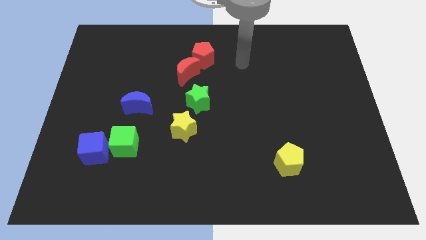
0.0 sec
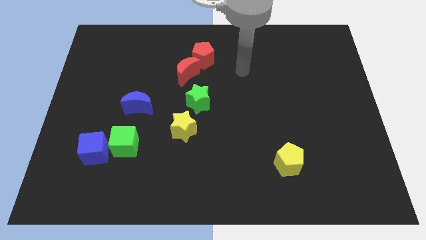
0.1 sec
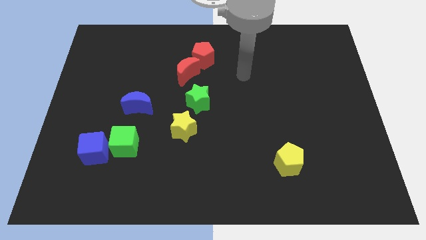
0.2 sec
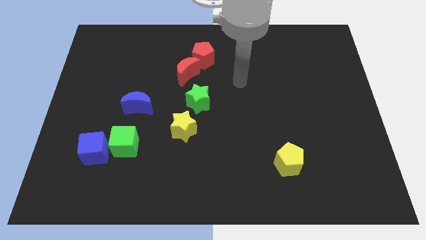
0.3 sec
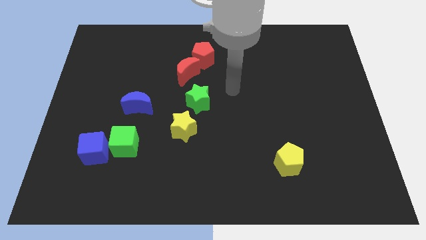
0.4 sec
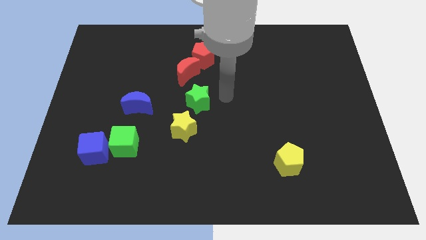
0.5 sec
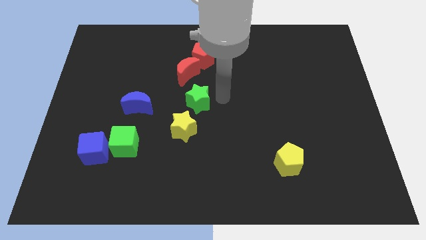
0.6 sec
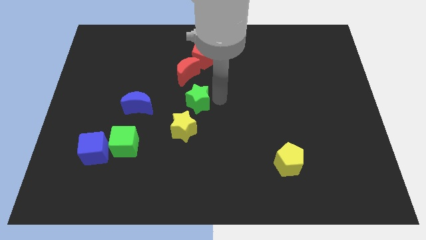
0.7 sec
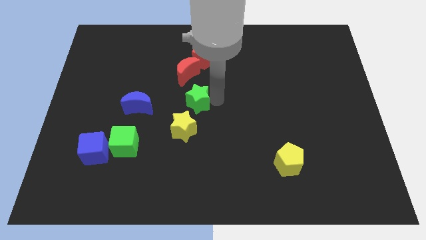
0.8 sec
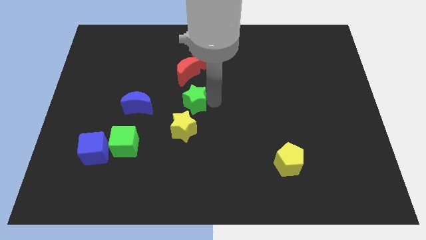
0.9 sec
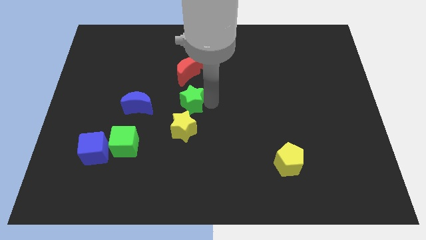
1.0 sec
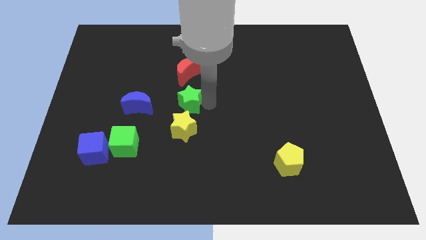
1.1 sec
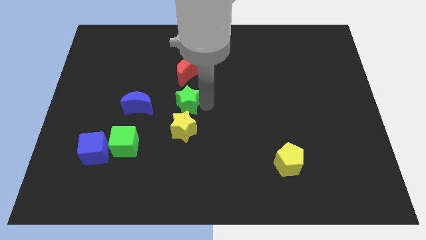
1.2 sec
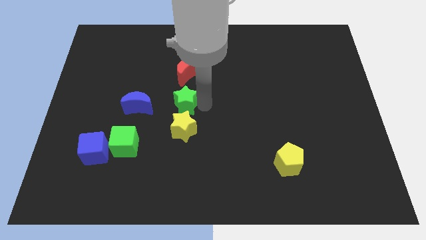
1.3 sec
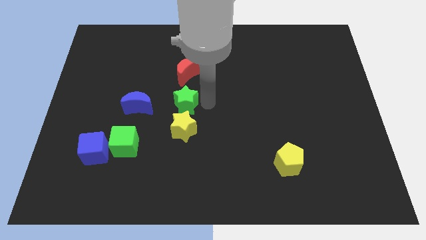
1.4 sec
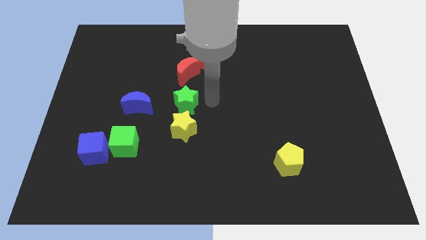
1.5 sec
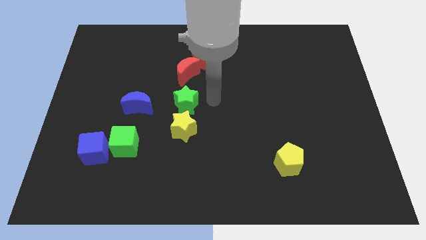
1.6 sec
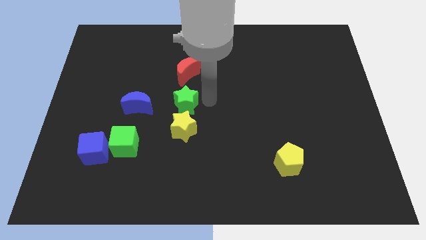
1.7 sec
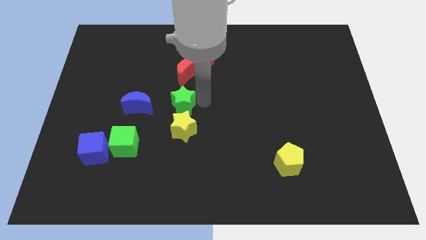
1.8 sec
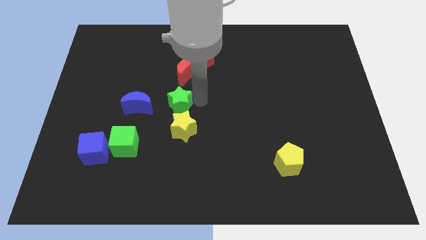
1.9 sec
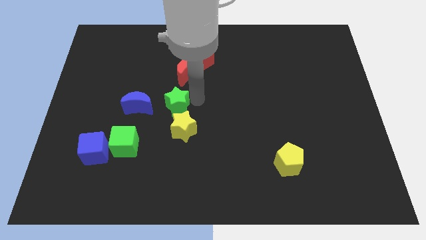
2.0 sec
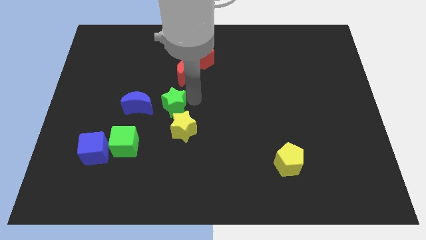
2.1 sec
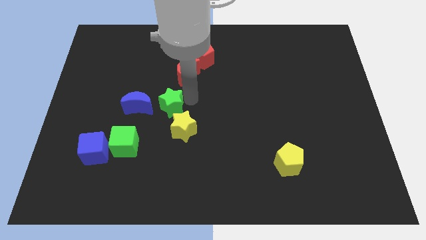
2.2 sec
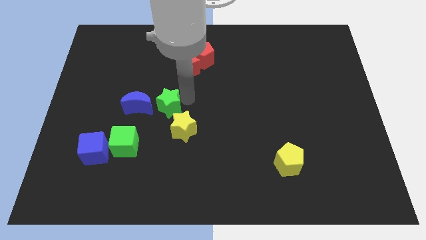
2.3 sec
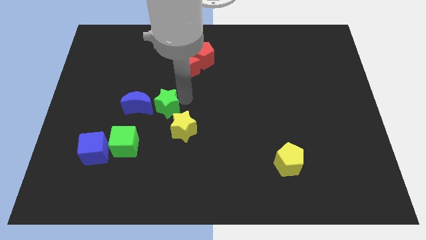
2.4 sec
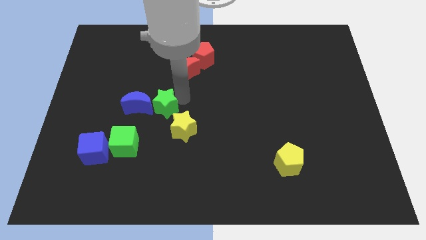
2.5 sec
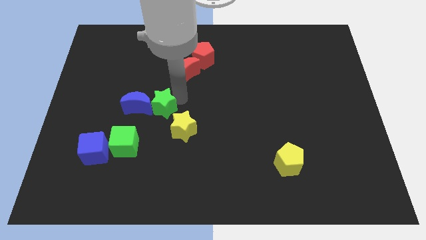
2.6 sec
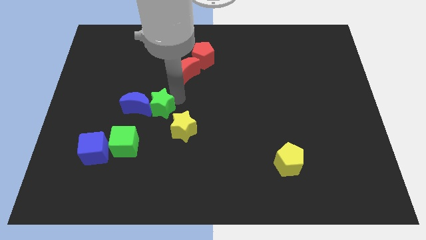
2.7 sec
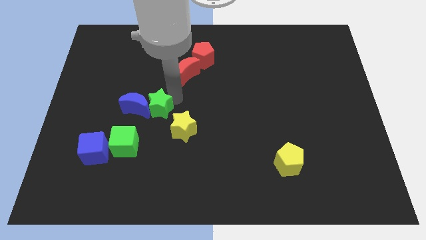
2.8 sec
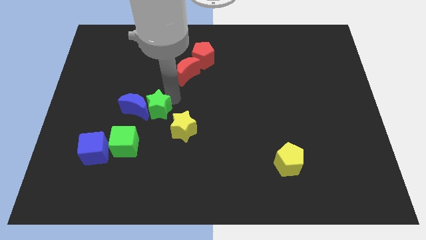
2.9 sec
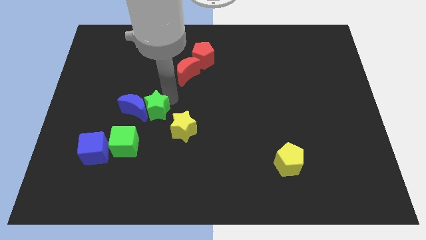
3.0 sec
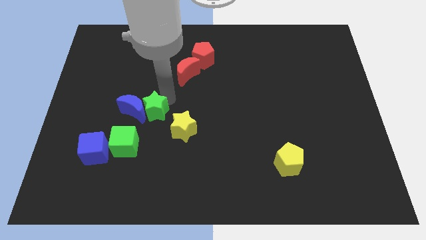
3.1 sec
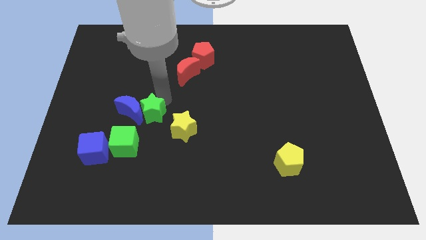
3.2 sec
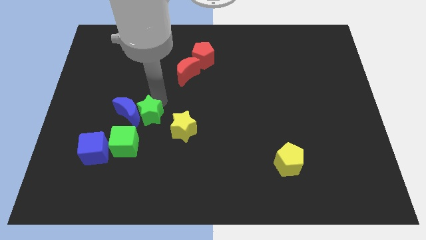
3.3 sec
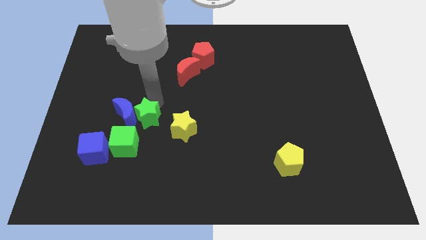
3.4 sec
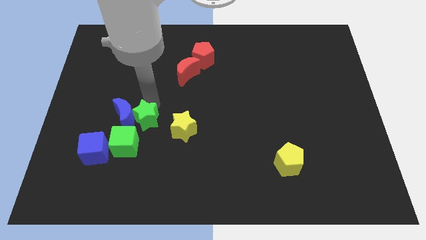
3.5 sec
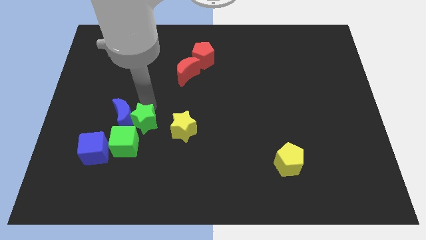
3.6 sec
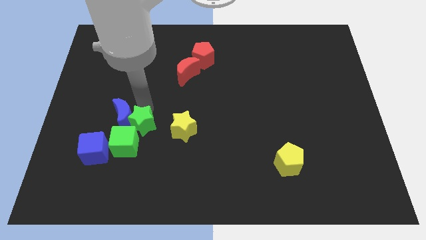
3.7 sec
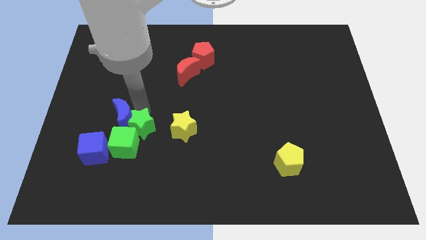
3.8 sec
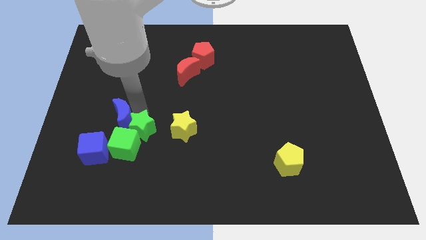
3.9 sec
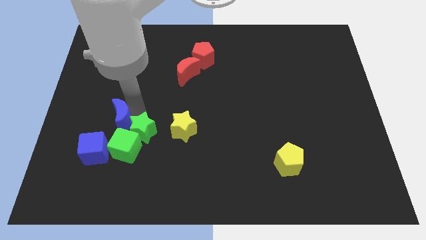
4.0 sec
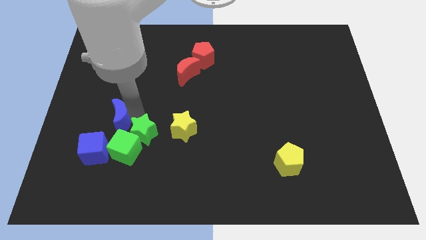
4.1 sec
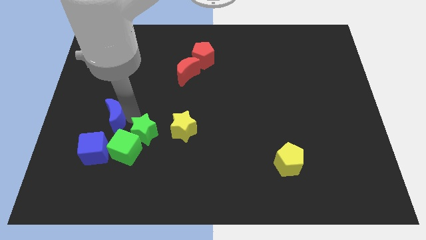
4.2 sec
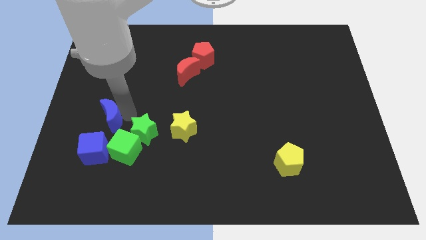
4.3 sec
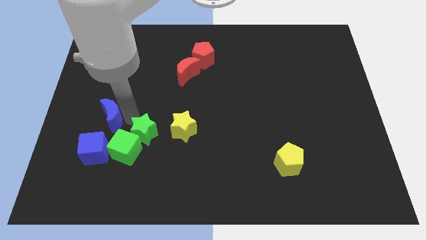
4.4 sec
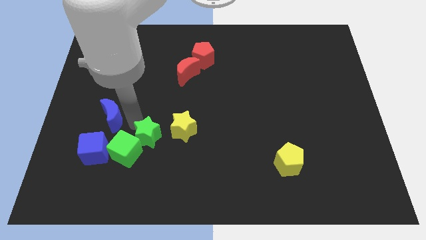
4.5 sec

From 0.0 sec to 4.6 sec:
put the green star diagonally down and to the left of the yellow star

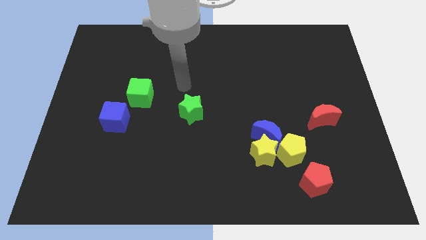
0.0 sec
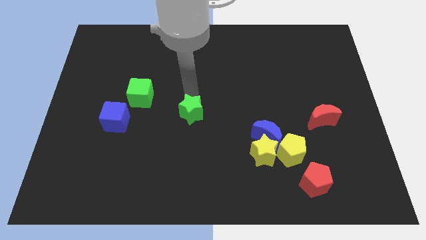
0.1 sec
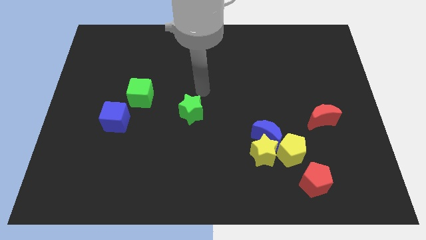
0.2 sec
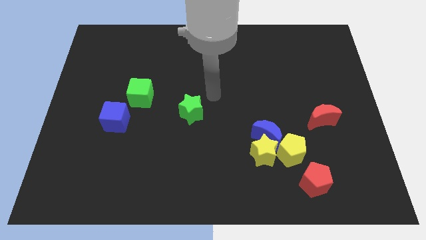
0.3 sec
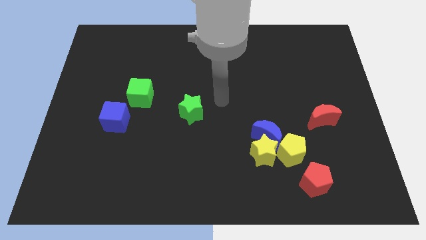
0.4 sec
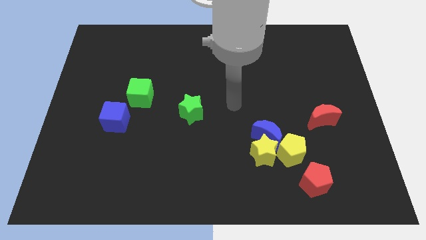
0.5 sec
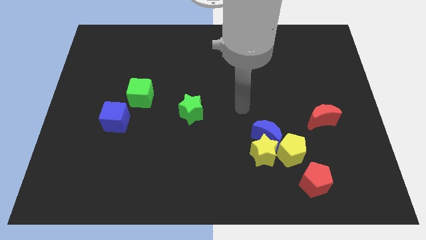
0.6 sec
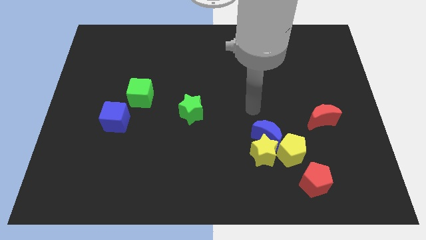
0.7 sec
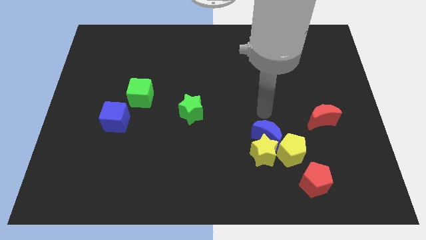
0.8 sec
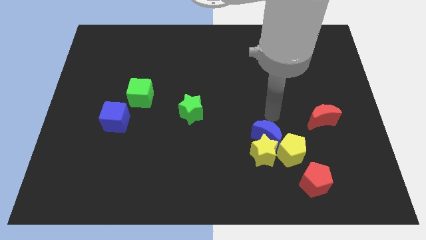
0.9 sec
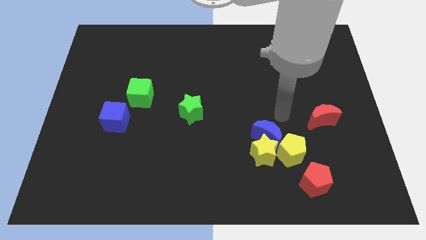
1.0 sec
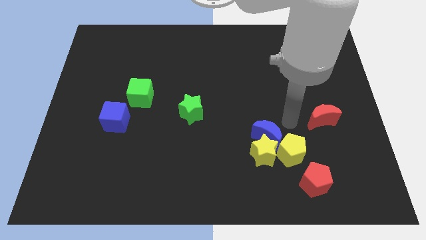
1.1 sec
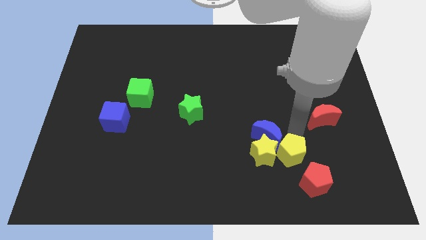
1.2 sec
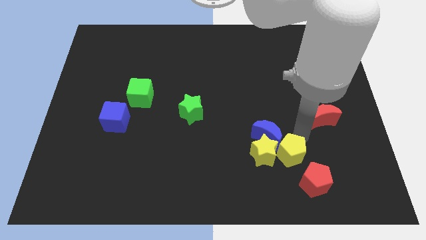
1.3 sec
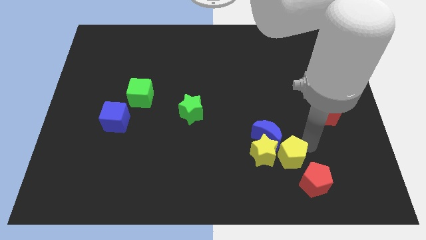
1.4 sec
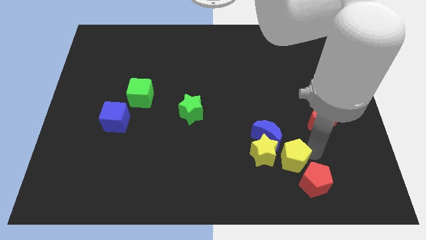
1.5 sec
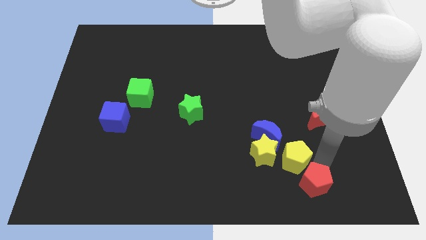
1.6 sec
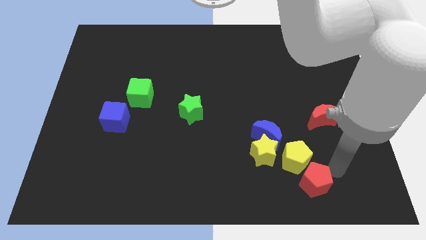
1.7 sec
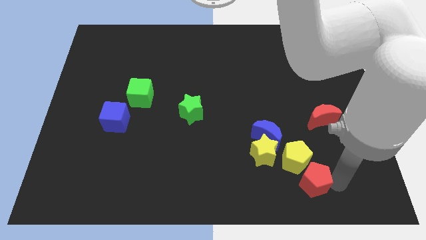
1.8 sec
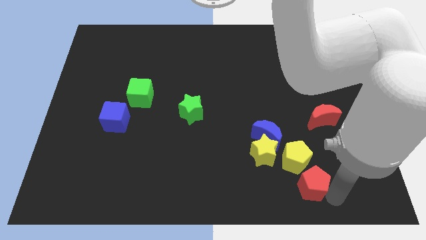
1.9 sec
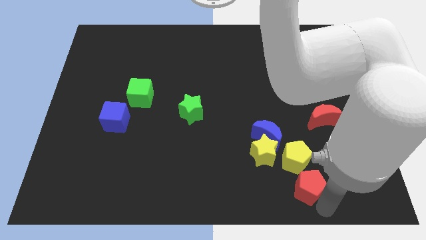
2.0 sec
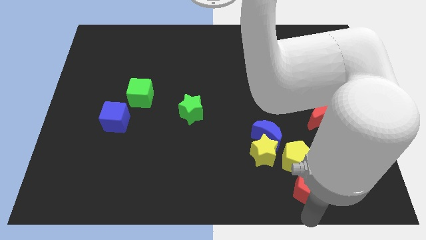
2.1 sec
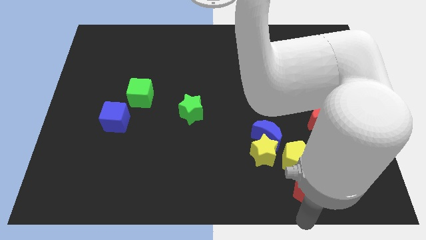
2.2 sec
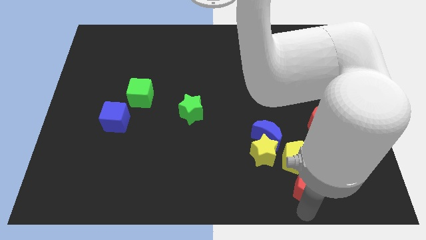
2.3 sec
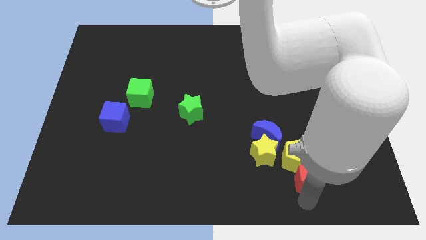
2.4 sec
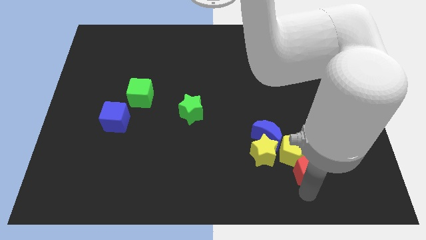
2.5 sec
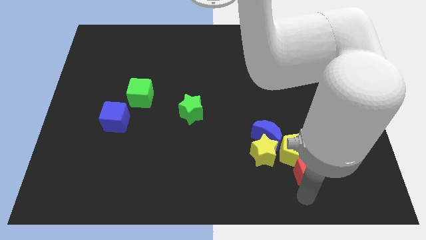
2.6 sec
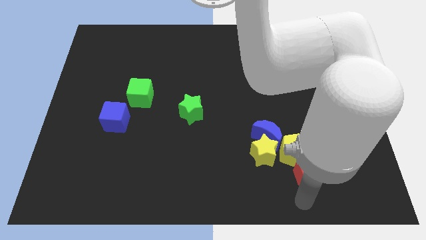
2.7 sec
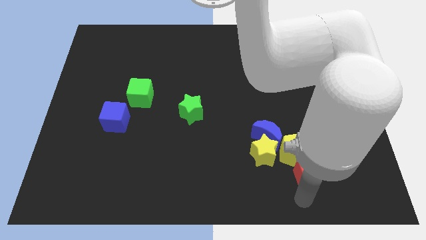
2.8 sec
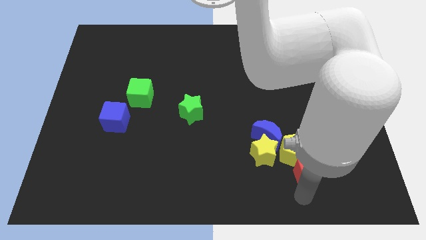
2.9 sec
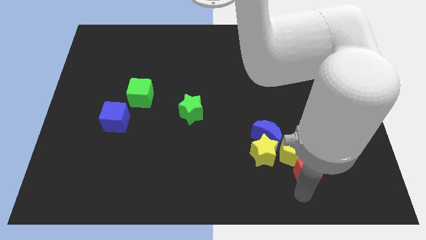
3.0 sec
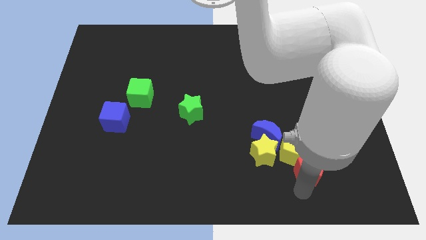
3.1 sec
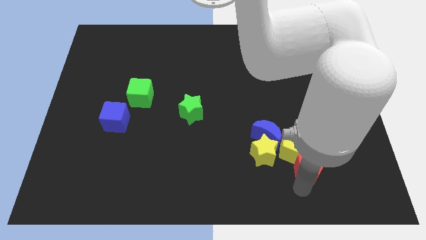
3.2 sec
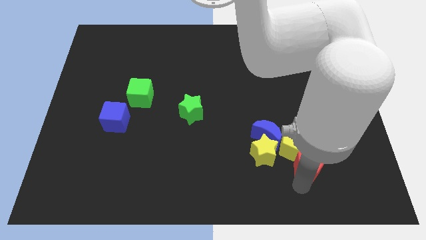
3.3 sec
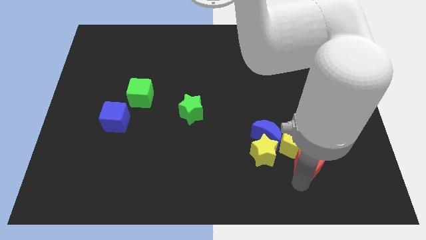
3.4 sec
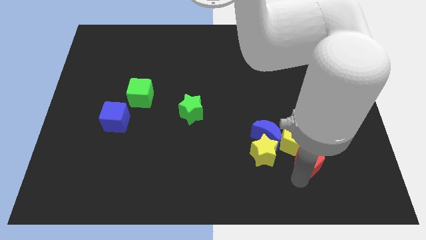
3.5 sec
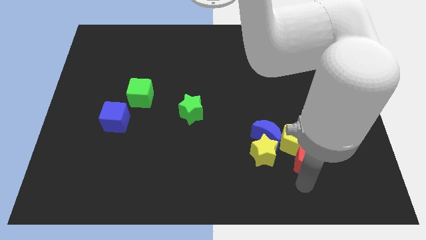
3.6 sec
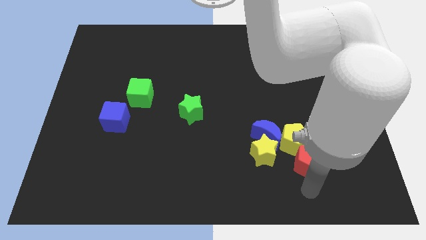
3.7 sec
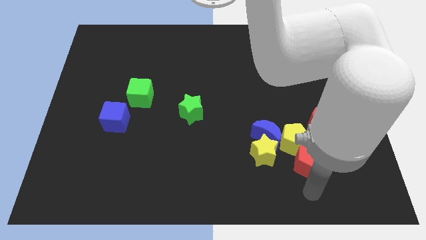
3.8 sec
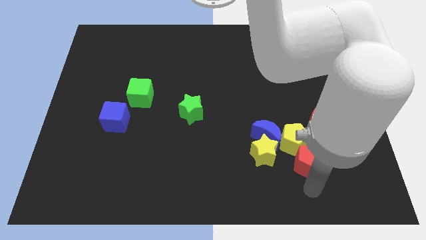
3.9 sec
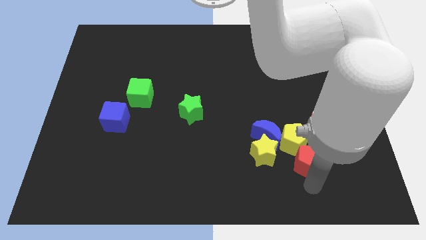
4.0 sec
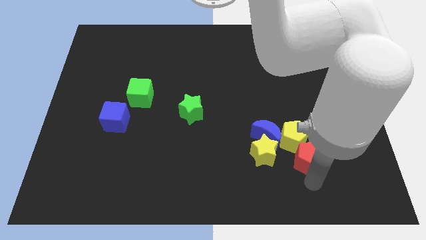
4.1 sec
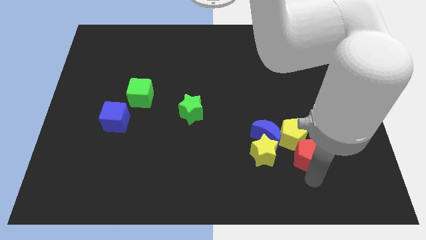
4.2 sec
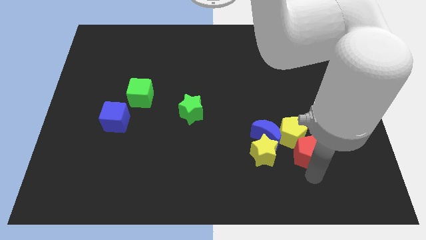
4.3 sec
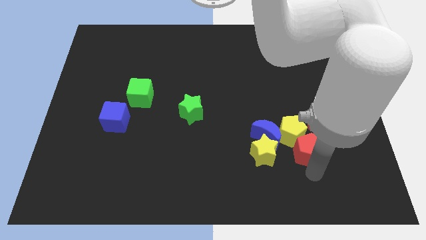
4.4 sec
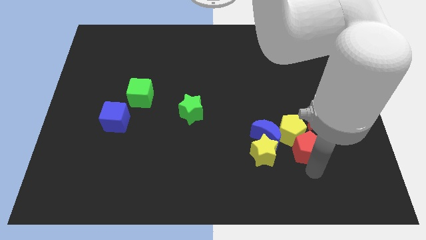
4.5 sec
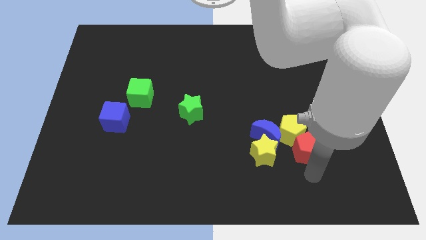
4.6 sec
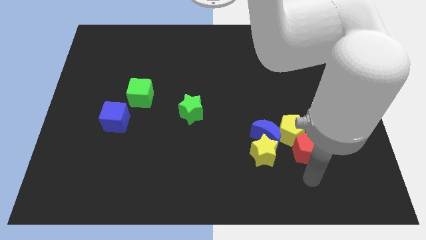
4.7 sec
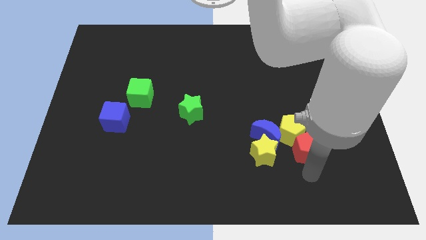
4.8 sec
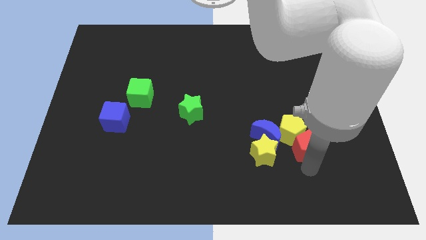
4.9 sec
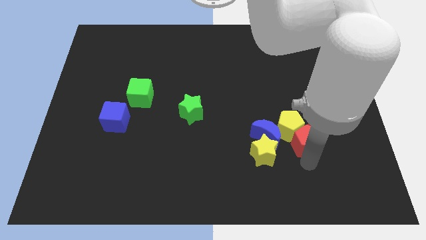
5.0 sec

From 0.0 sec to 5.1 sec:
put the red pentagon to the top right of the yellow star
